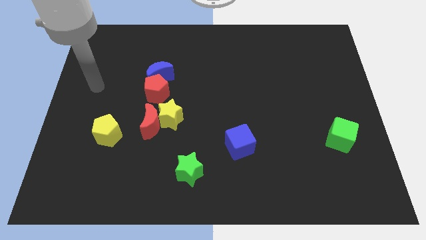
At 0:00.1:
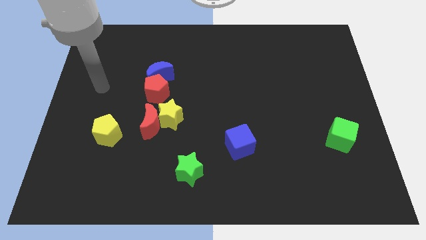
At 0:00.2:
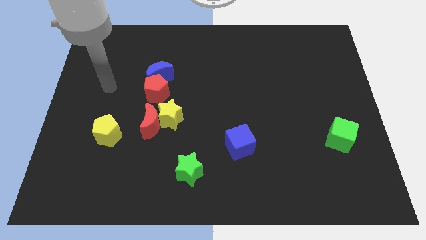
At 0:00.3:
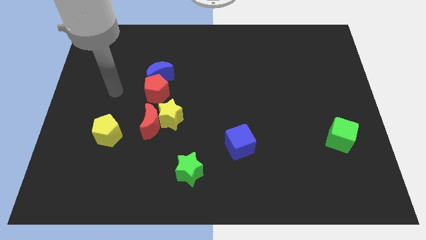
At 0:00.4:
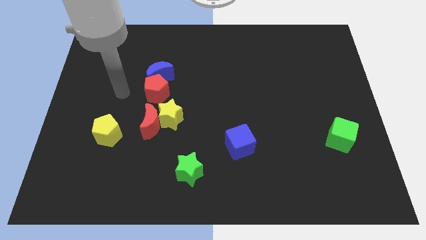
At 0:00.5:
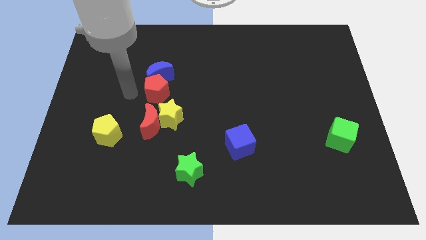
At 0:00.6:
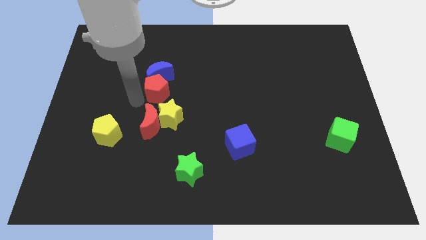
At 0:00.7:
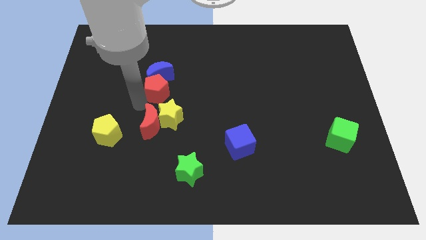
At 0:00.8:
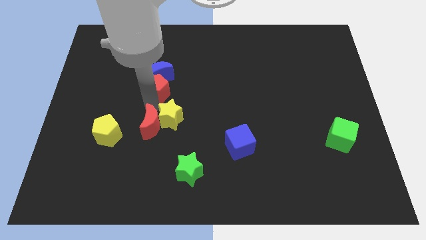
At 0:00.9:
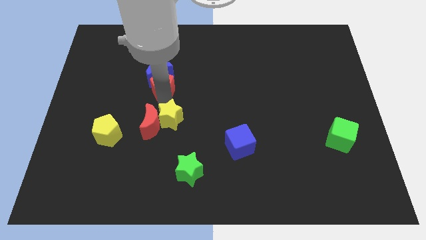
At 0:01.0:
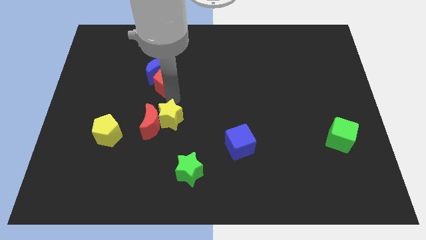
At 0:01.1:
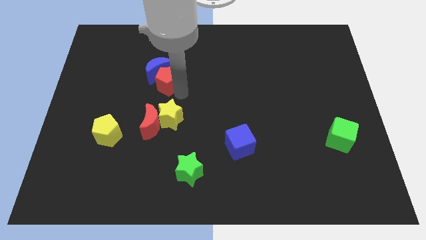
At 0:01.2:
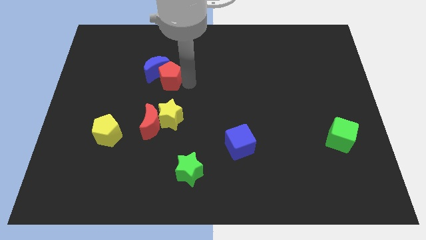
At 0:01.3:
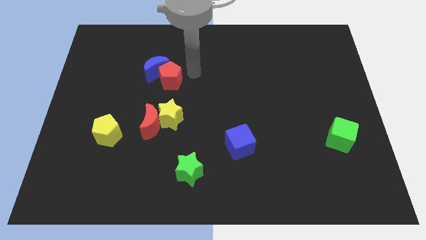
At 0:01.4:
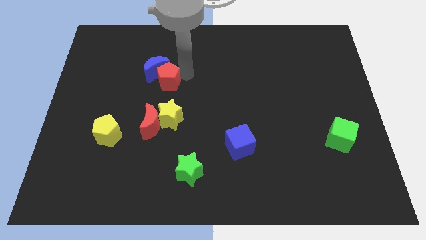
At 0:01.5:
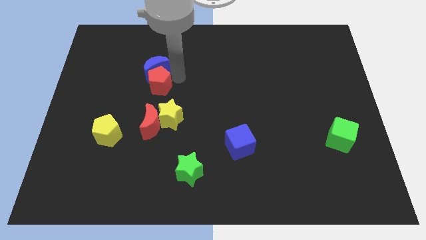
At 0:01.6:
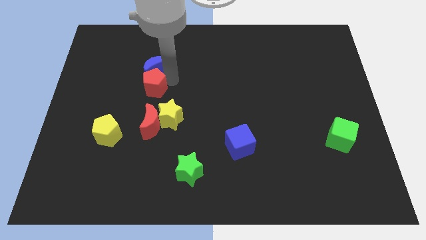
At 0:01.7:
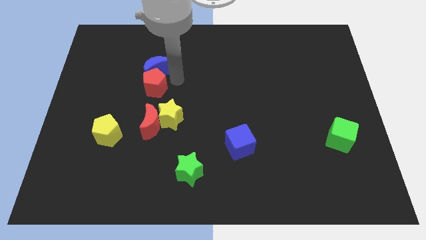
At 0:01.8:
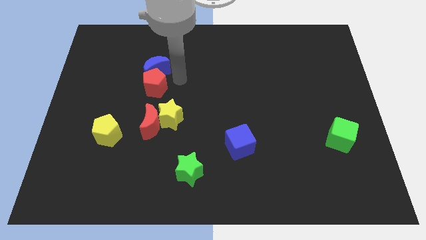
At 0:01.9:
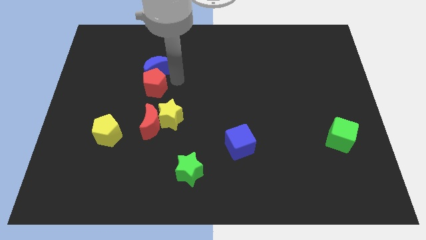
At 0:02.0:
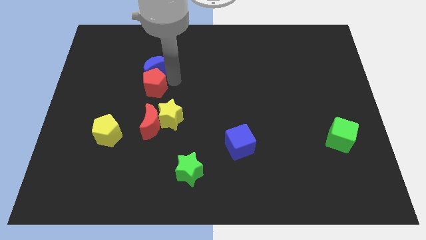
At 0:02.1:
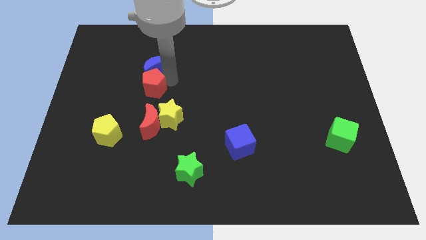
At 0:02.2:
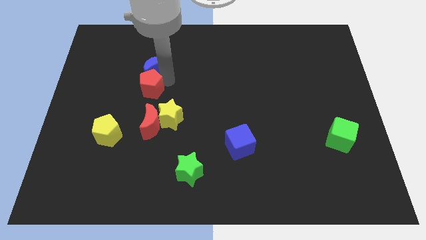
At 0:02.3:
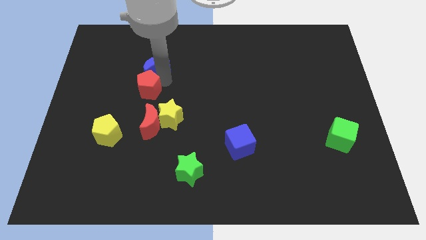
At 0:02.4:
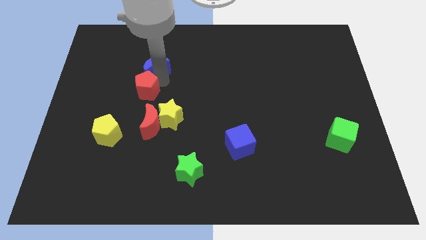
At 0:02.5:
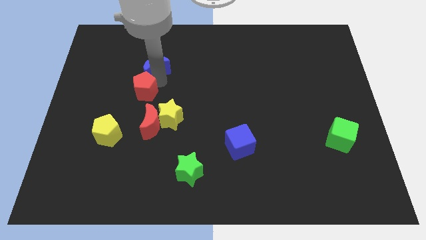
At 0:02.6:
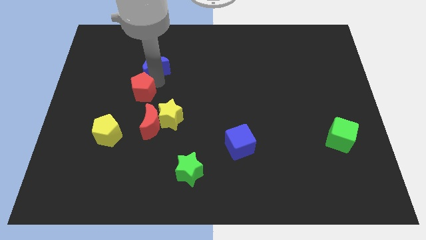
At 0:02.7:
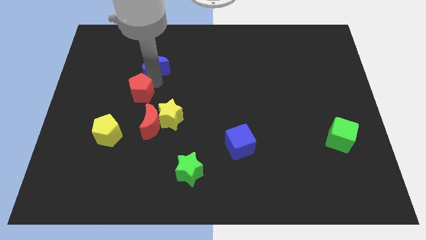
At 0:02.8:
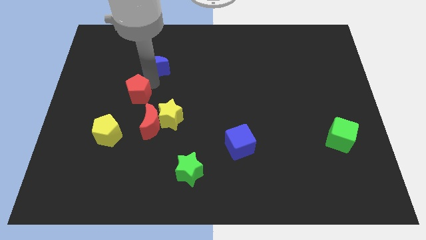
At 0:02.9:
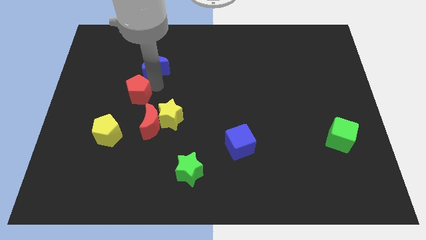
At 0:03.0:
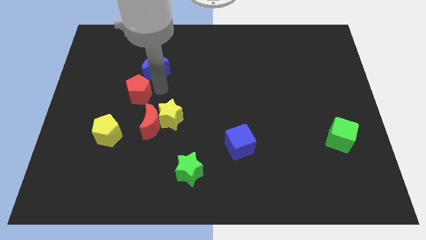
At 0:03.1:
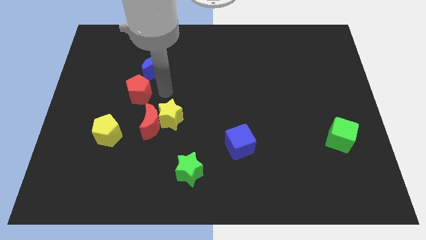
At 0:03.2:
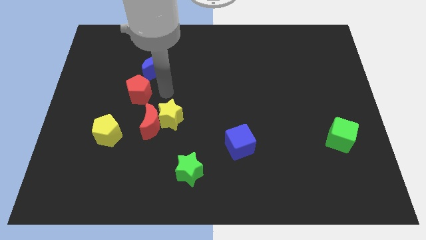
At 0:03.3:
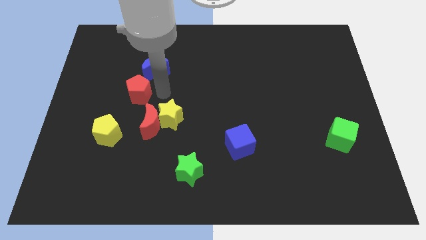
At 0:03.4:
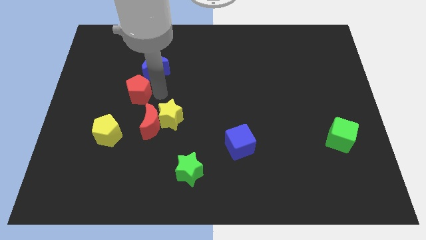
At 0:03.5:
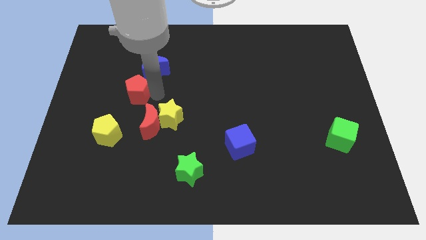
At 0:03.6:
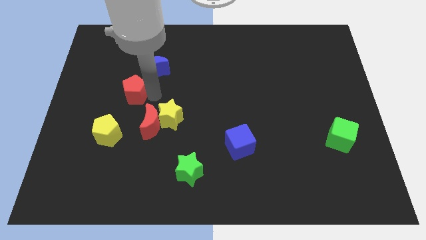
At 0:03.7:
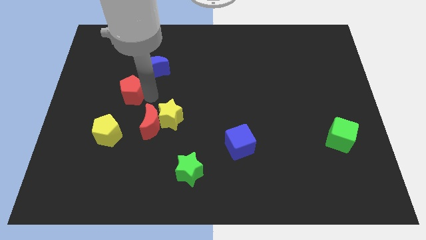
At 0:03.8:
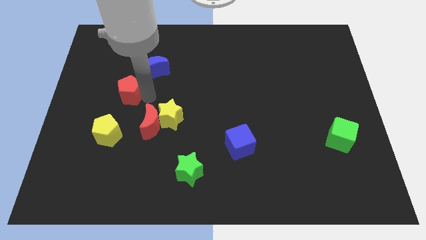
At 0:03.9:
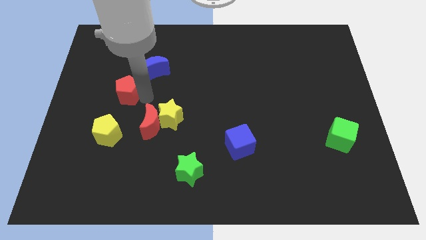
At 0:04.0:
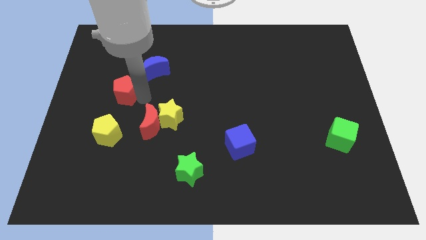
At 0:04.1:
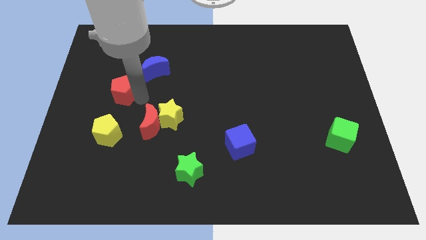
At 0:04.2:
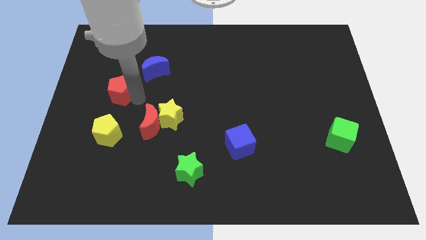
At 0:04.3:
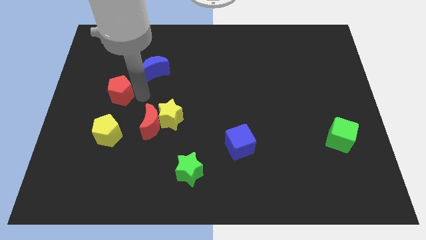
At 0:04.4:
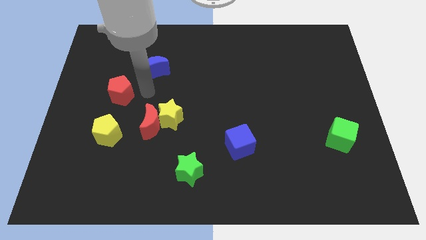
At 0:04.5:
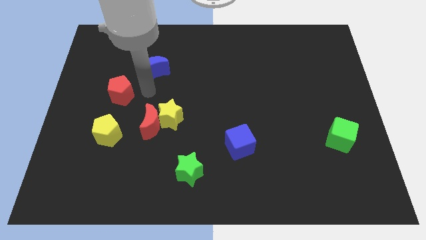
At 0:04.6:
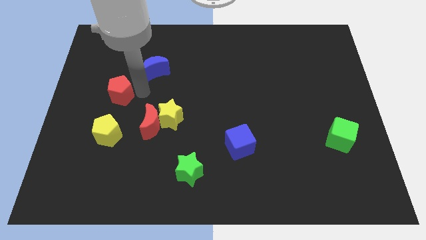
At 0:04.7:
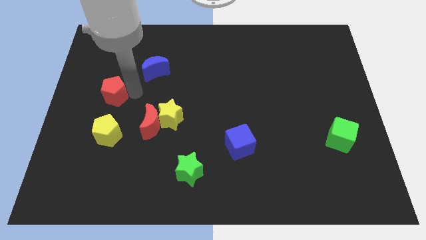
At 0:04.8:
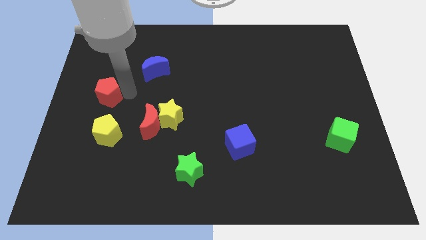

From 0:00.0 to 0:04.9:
put the red pentagon to the left side of the board

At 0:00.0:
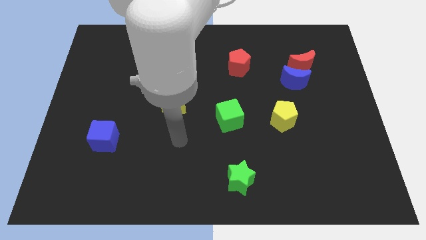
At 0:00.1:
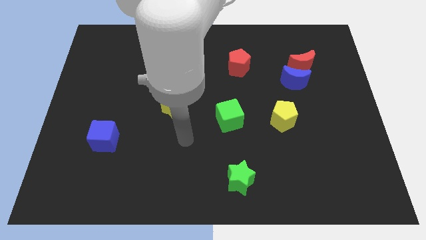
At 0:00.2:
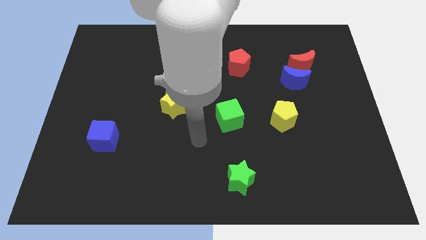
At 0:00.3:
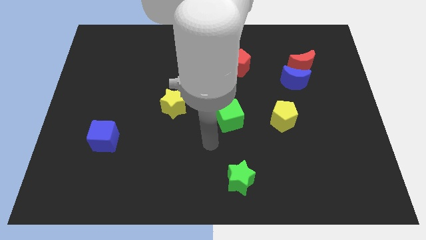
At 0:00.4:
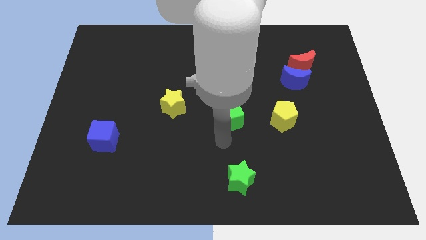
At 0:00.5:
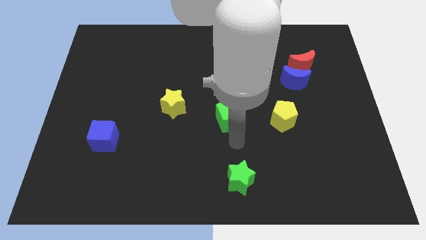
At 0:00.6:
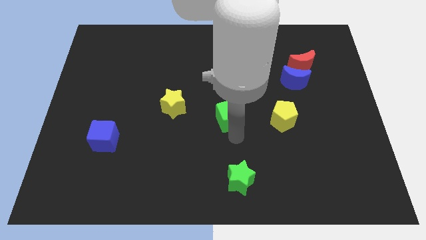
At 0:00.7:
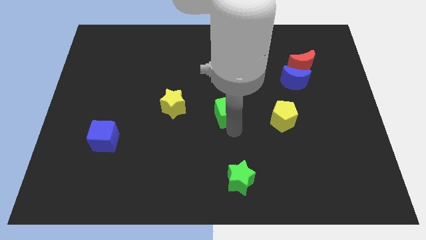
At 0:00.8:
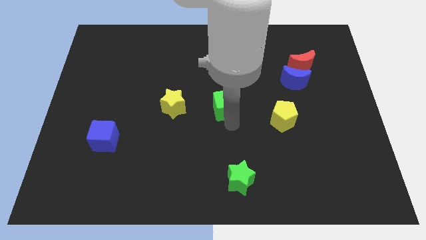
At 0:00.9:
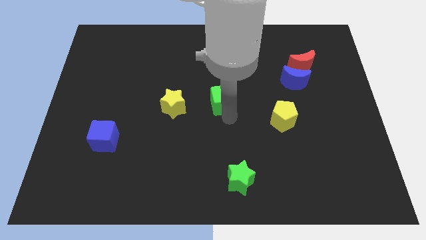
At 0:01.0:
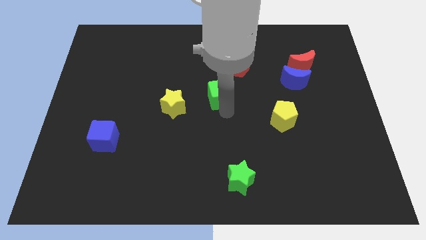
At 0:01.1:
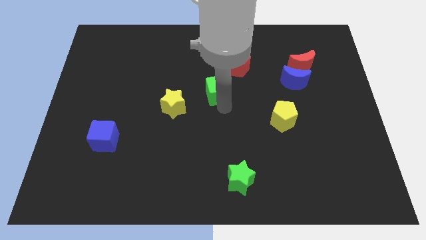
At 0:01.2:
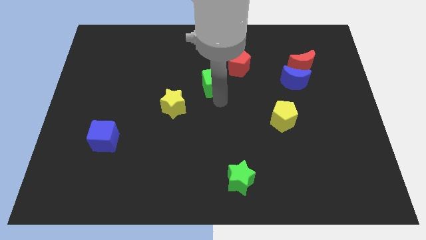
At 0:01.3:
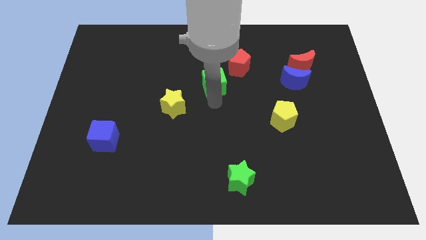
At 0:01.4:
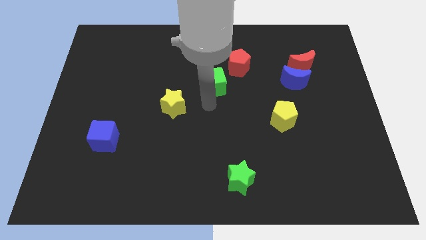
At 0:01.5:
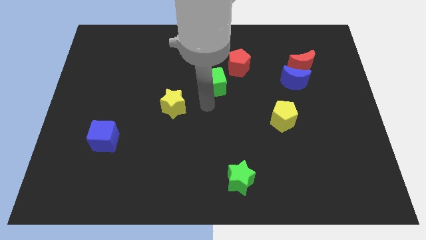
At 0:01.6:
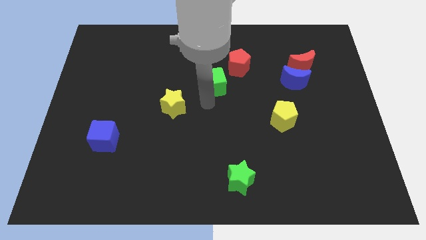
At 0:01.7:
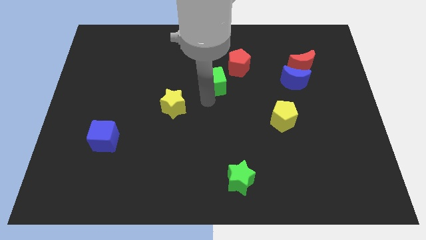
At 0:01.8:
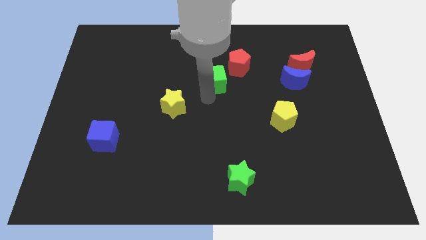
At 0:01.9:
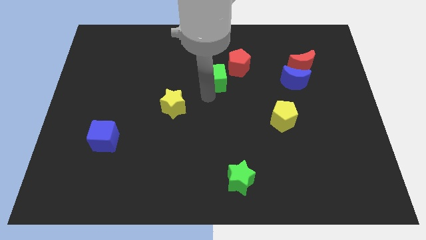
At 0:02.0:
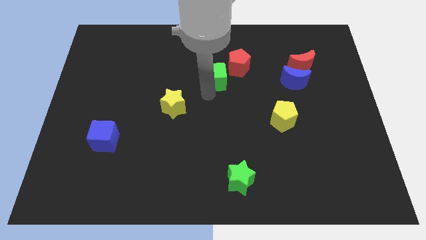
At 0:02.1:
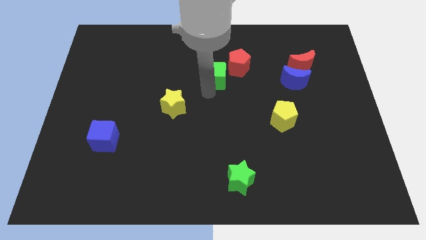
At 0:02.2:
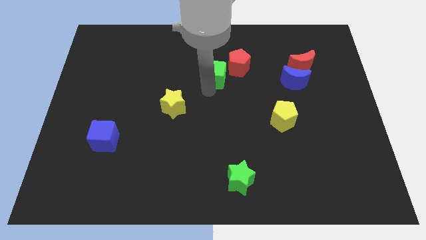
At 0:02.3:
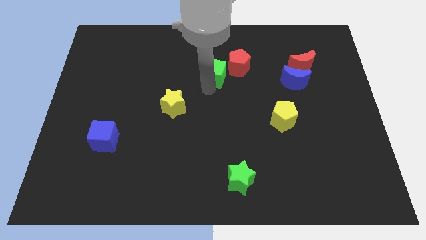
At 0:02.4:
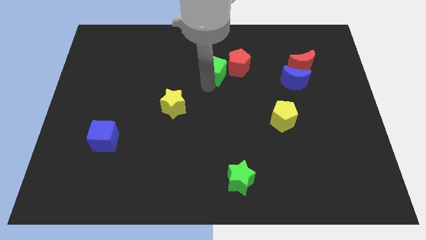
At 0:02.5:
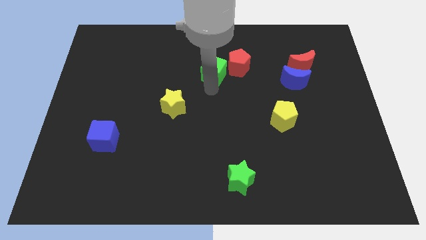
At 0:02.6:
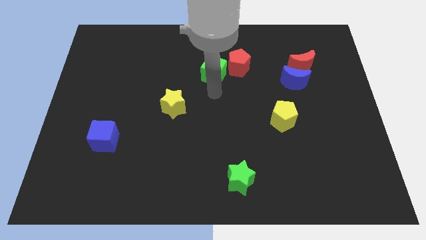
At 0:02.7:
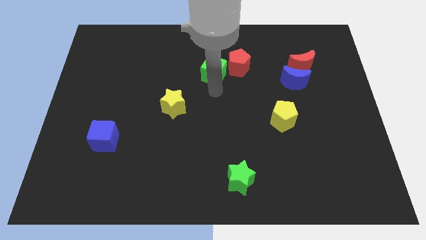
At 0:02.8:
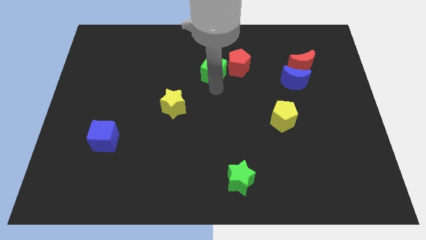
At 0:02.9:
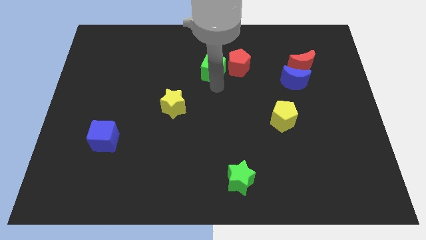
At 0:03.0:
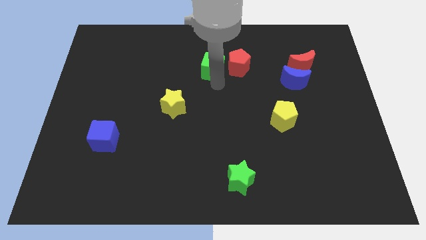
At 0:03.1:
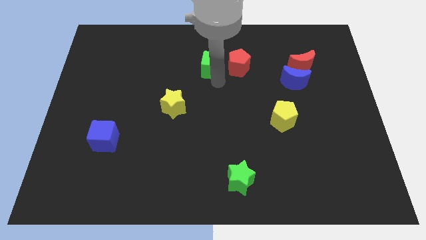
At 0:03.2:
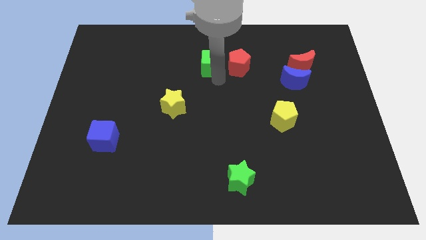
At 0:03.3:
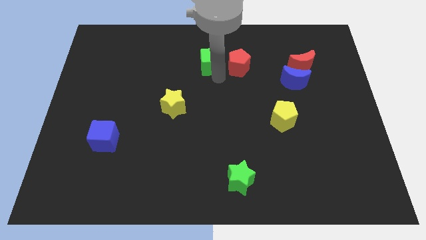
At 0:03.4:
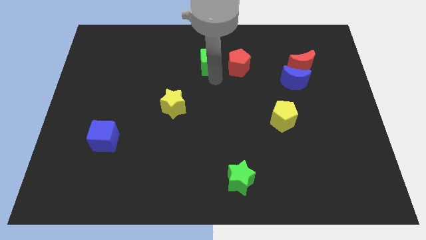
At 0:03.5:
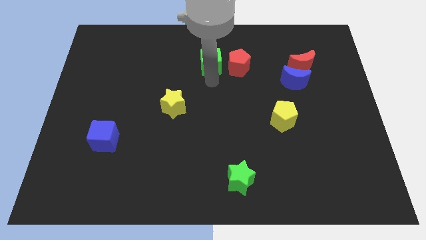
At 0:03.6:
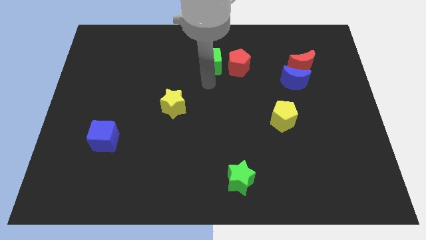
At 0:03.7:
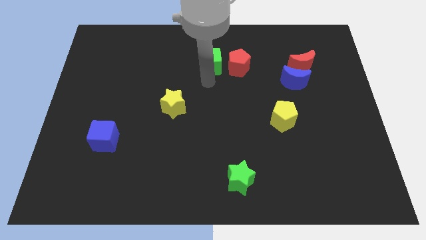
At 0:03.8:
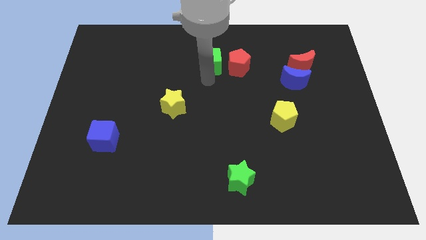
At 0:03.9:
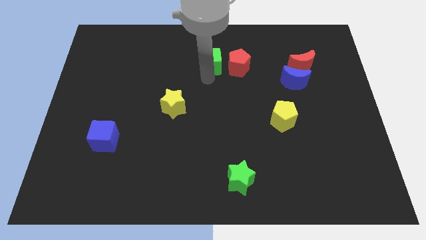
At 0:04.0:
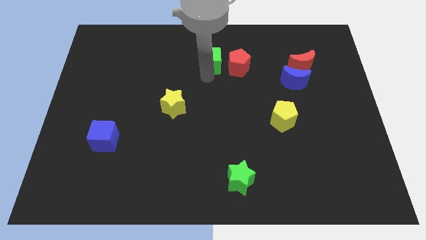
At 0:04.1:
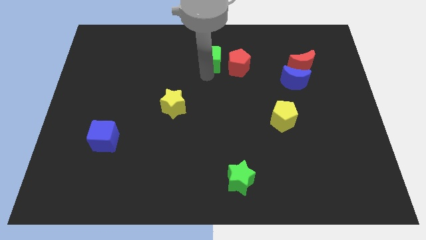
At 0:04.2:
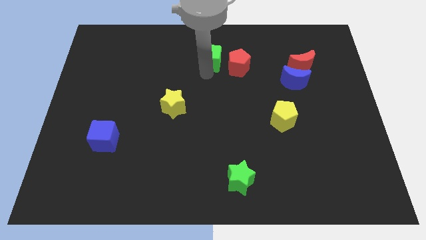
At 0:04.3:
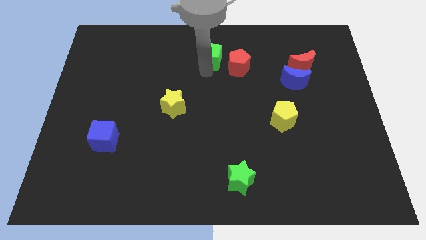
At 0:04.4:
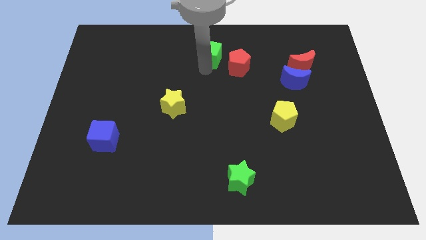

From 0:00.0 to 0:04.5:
slide the green cube to the towards your base
